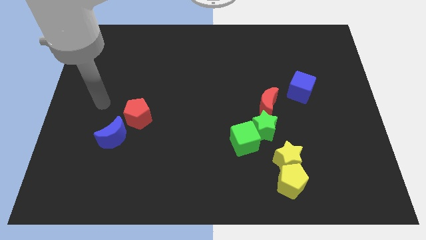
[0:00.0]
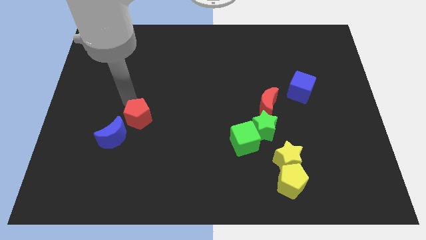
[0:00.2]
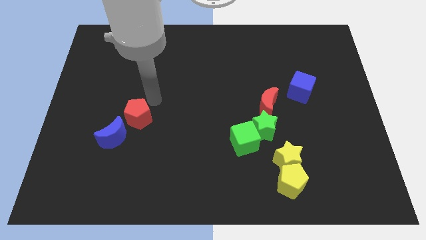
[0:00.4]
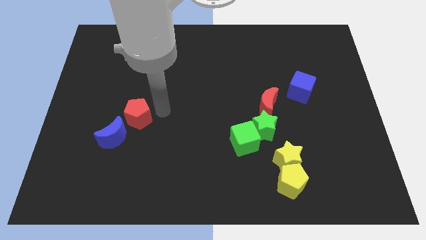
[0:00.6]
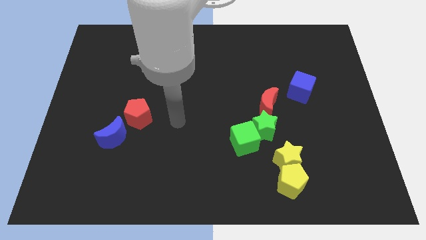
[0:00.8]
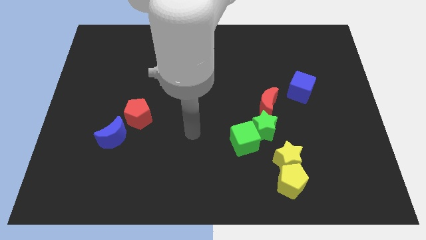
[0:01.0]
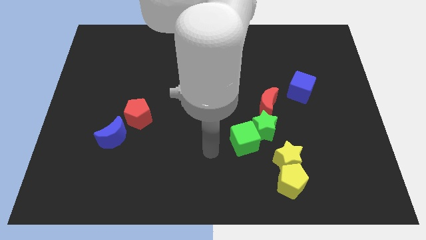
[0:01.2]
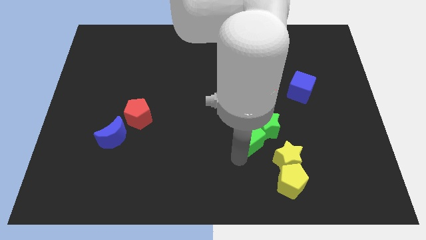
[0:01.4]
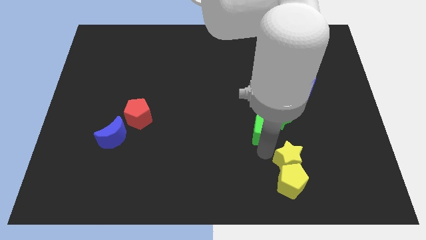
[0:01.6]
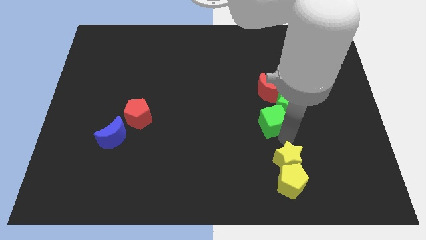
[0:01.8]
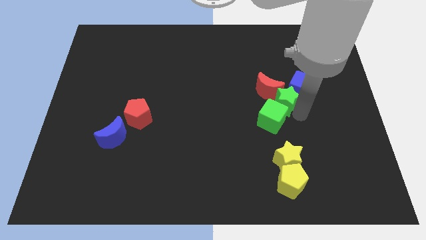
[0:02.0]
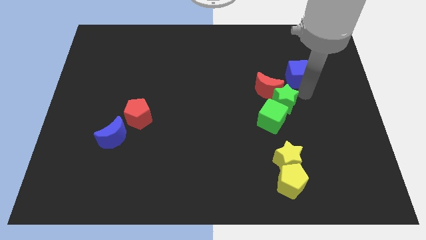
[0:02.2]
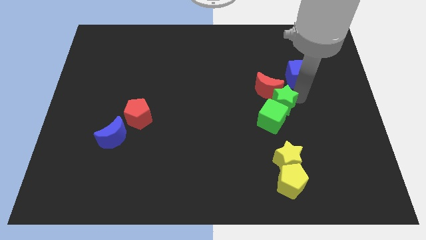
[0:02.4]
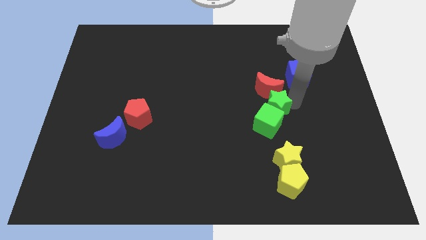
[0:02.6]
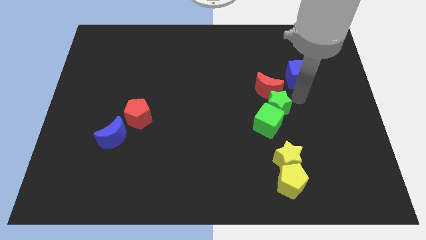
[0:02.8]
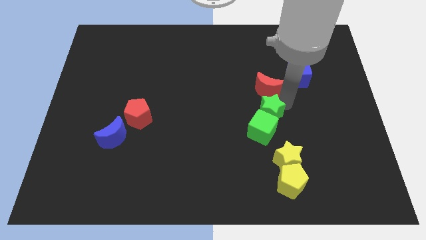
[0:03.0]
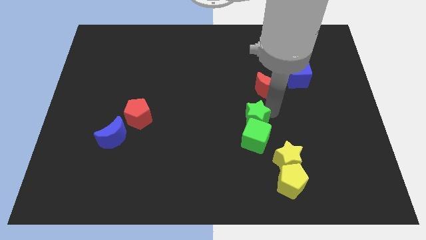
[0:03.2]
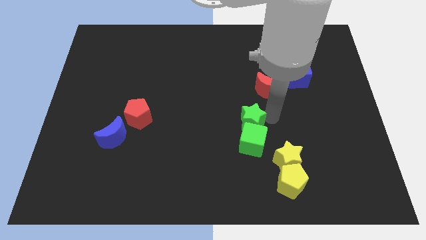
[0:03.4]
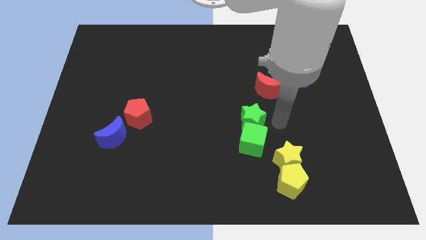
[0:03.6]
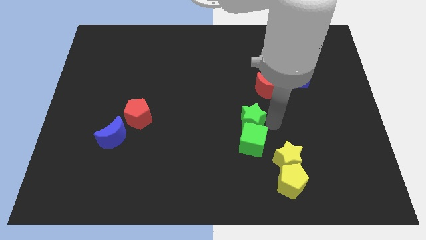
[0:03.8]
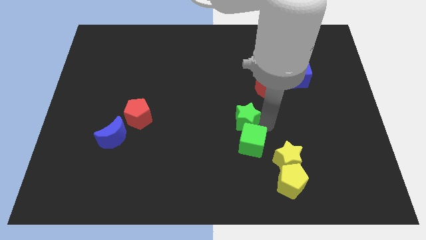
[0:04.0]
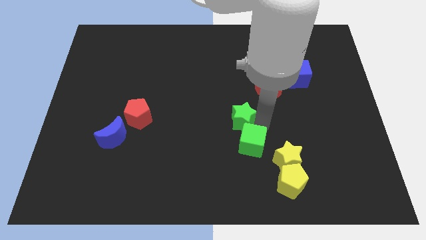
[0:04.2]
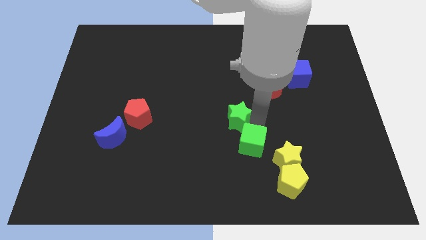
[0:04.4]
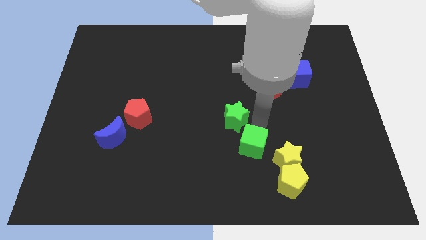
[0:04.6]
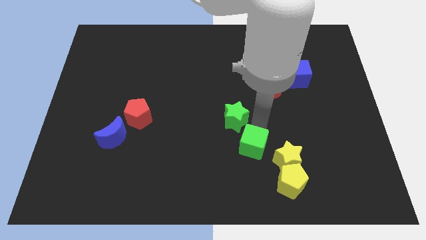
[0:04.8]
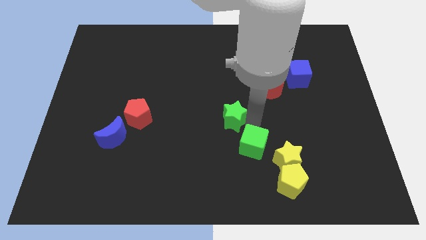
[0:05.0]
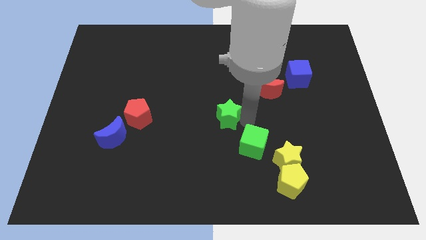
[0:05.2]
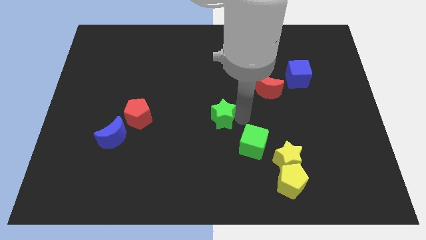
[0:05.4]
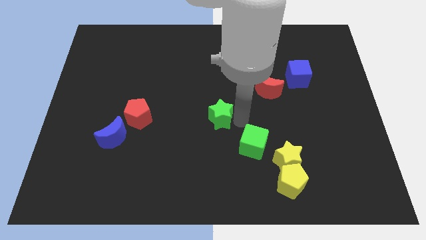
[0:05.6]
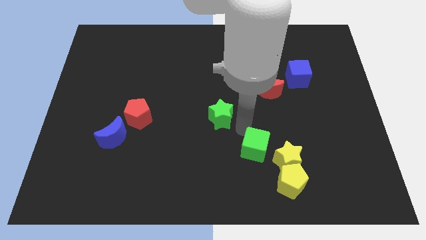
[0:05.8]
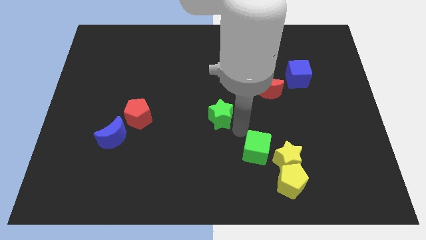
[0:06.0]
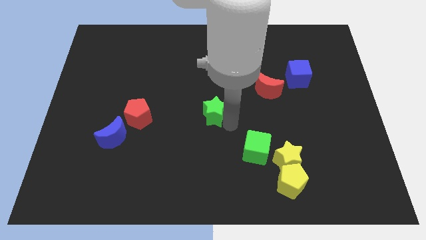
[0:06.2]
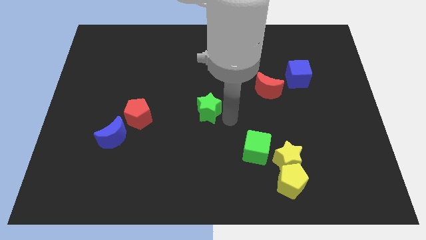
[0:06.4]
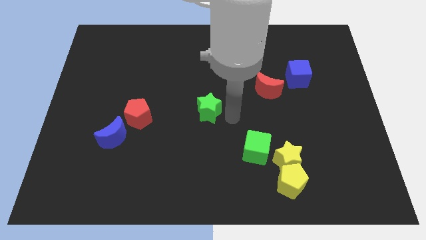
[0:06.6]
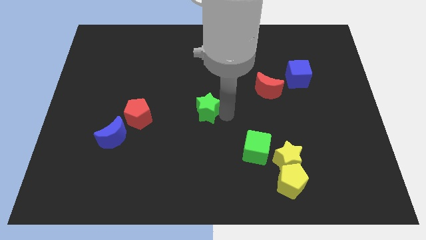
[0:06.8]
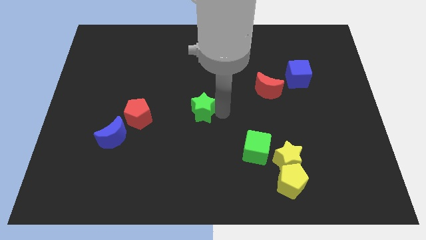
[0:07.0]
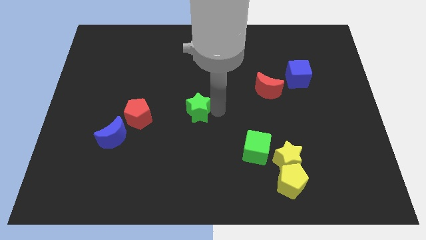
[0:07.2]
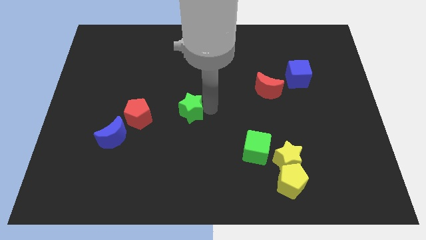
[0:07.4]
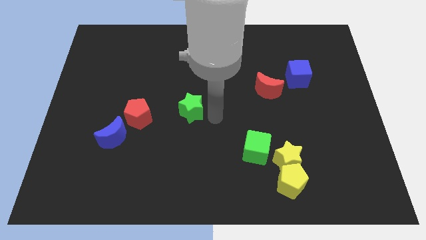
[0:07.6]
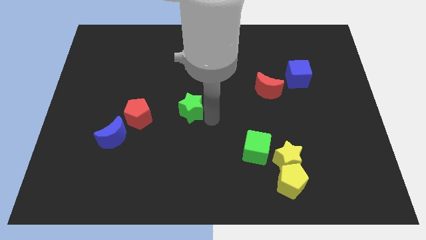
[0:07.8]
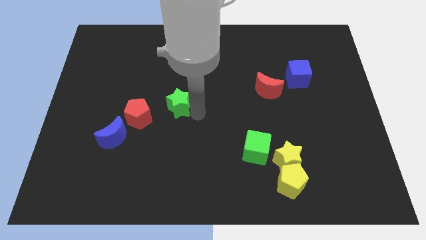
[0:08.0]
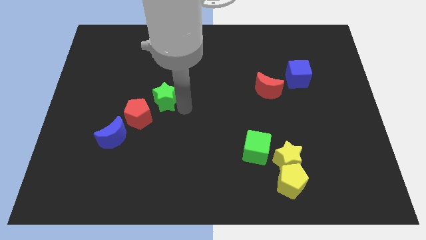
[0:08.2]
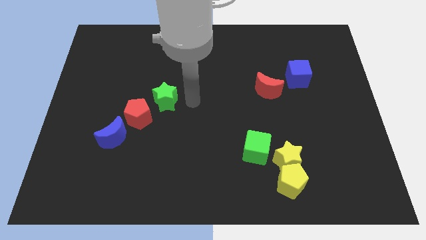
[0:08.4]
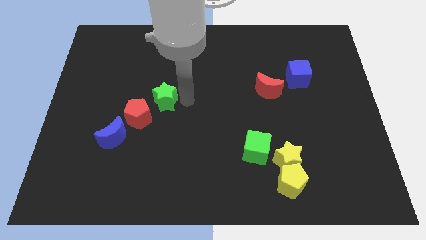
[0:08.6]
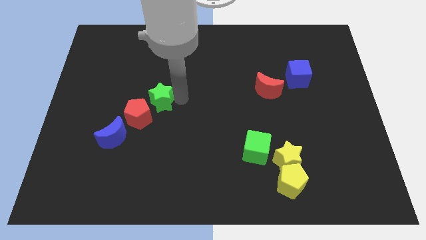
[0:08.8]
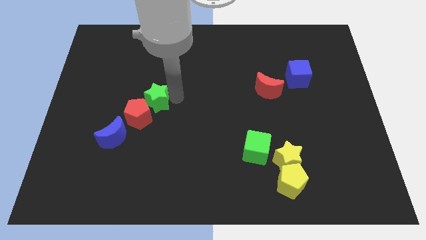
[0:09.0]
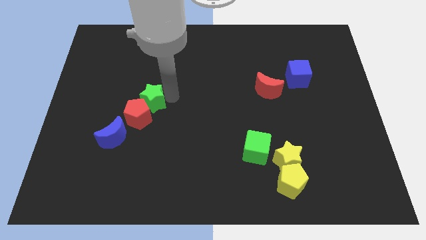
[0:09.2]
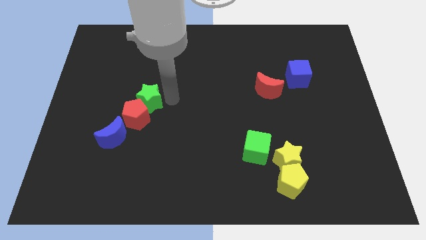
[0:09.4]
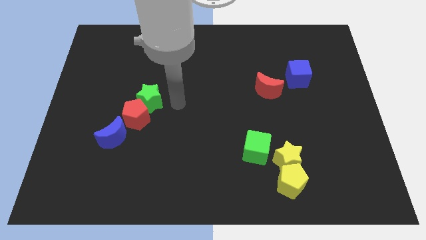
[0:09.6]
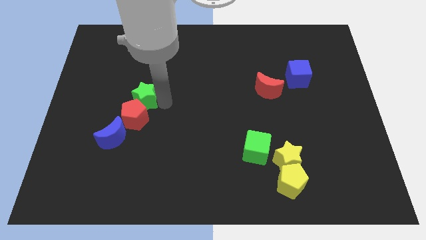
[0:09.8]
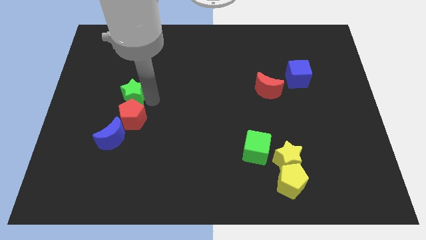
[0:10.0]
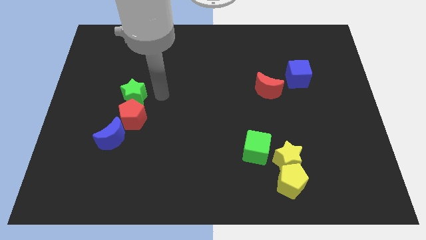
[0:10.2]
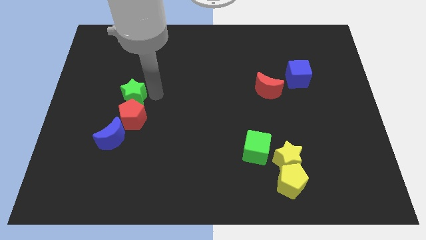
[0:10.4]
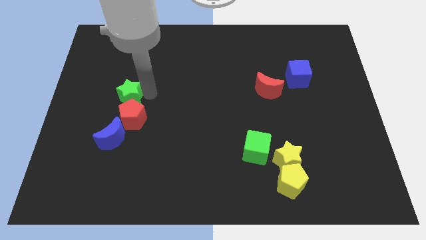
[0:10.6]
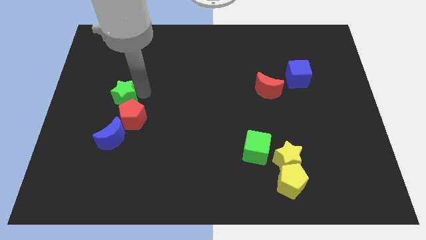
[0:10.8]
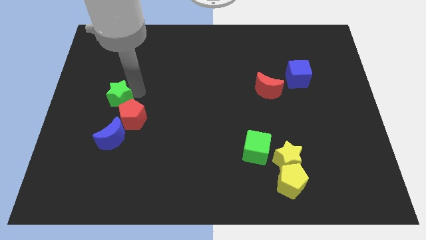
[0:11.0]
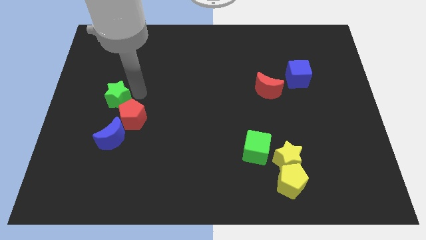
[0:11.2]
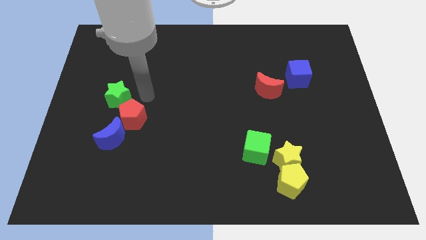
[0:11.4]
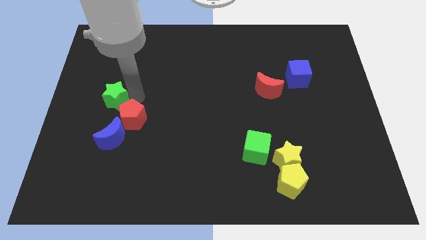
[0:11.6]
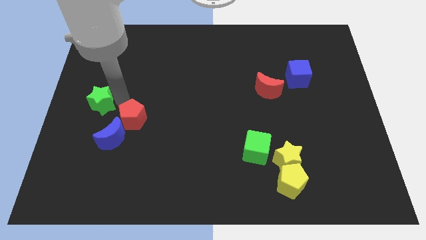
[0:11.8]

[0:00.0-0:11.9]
slide the green star to the left side
